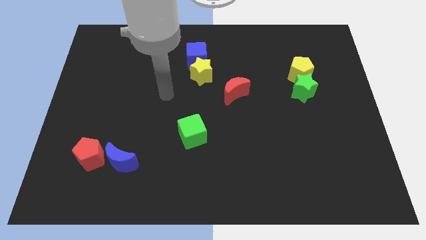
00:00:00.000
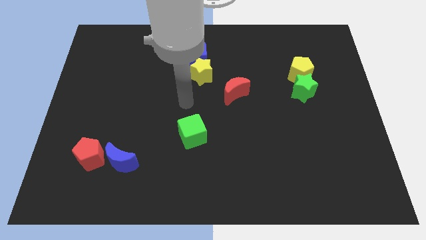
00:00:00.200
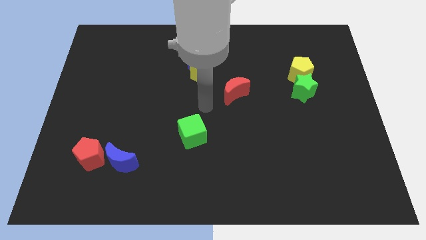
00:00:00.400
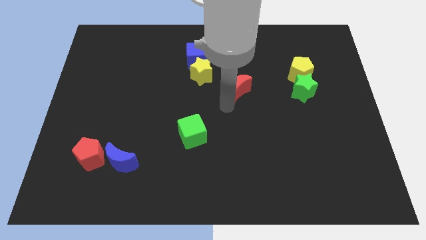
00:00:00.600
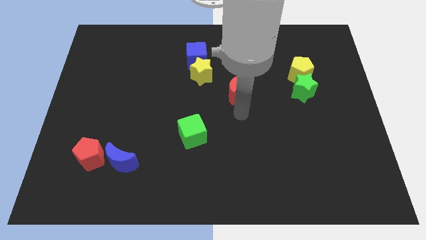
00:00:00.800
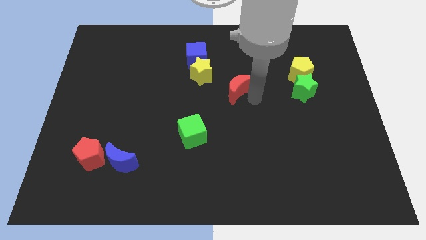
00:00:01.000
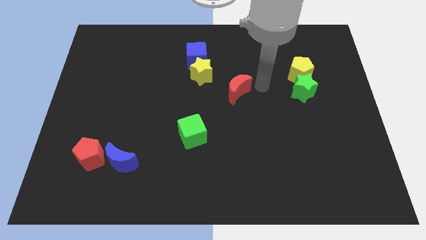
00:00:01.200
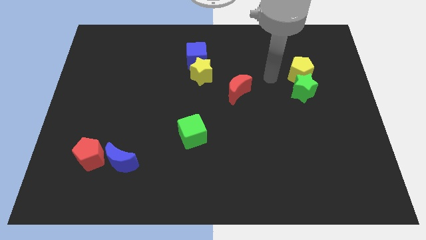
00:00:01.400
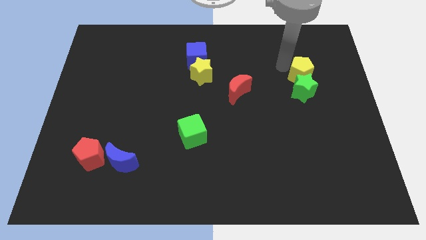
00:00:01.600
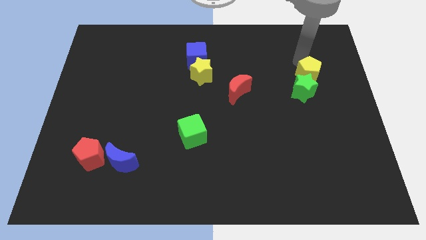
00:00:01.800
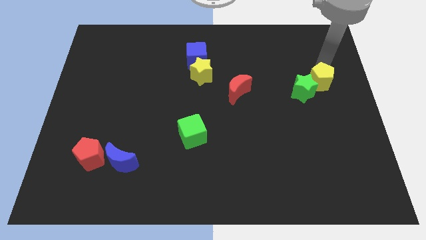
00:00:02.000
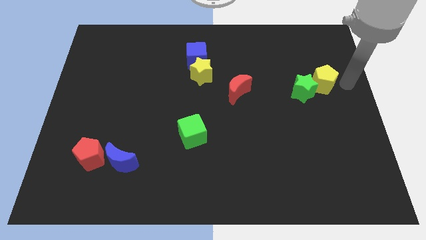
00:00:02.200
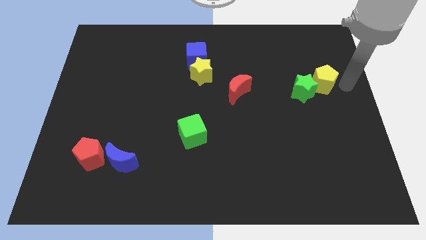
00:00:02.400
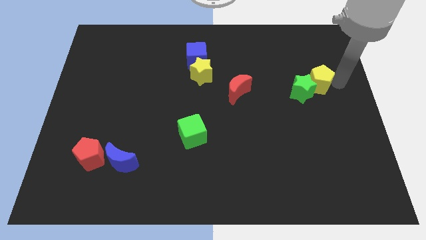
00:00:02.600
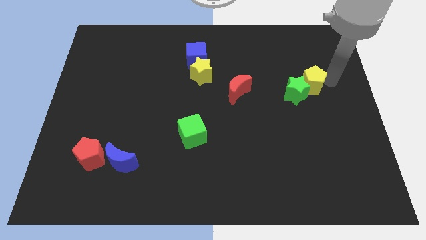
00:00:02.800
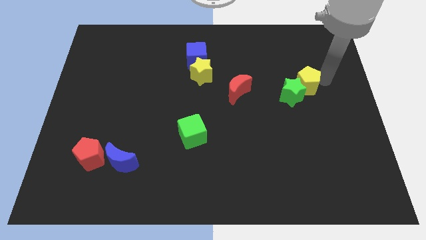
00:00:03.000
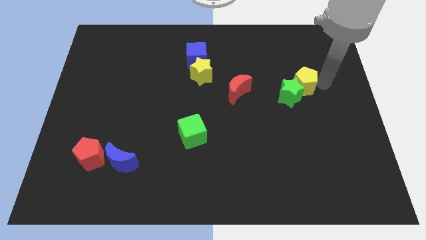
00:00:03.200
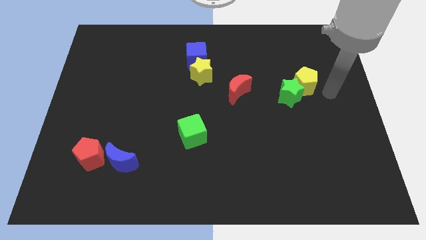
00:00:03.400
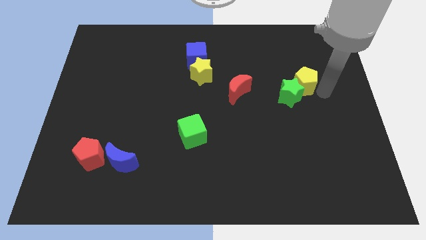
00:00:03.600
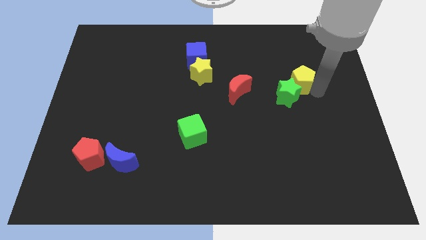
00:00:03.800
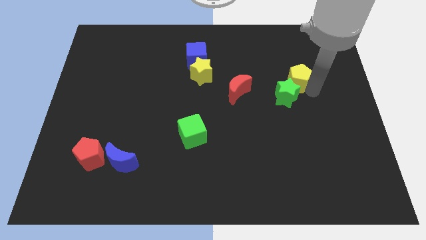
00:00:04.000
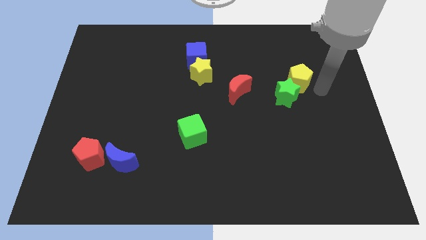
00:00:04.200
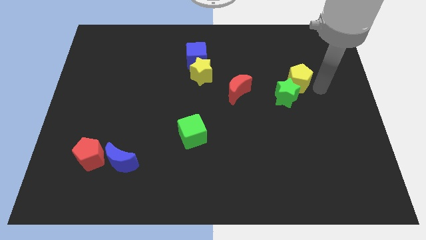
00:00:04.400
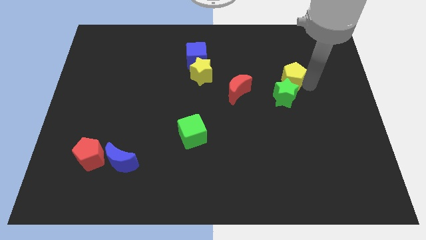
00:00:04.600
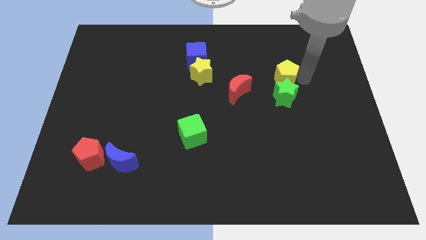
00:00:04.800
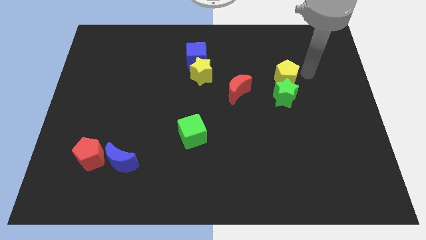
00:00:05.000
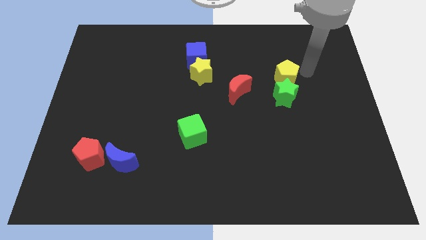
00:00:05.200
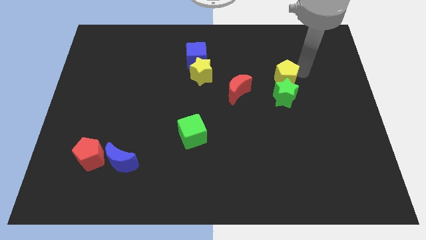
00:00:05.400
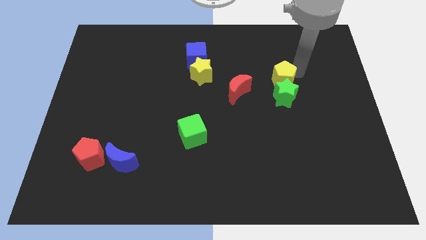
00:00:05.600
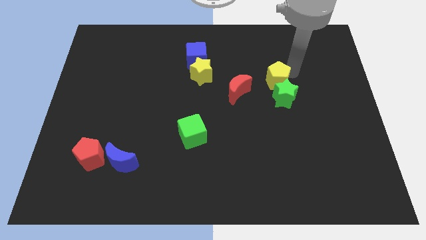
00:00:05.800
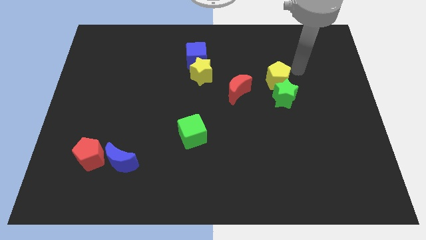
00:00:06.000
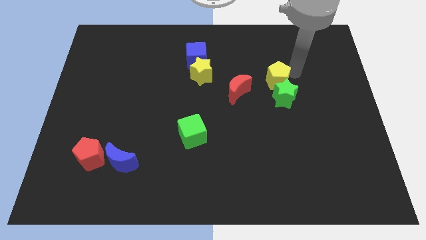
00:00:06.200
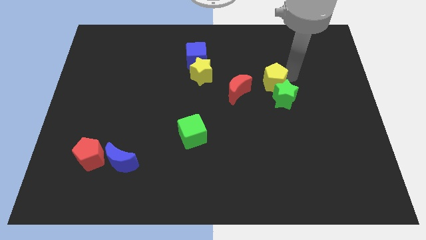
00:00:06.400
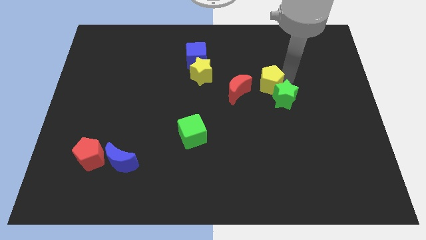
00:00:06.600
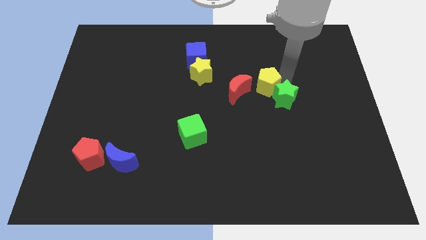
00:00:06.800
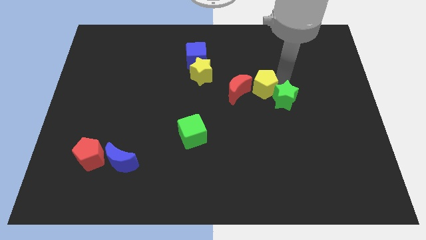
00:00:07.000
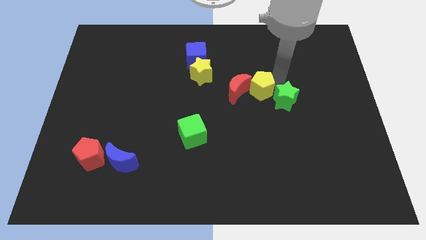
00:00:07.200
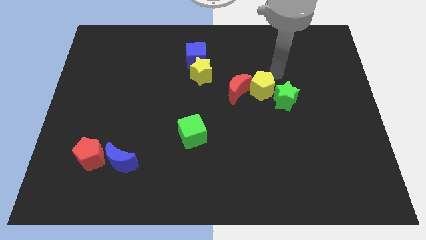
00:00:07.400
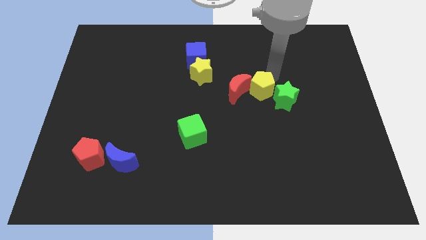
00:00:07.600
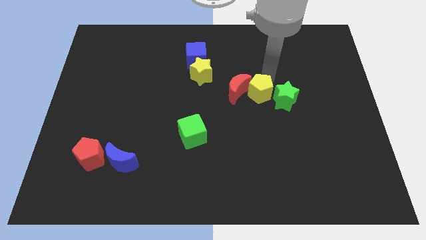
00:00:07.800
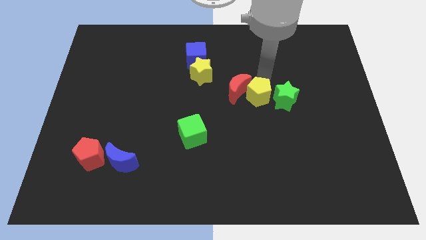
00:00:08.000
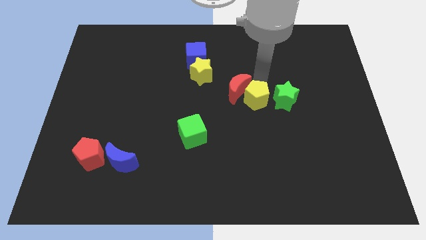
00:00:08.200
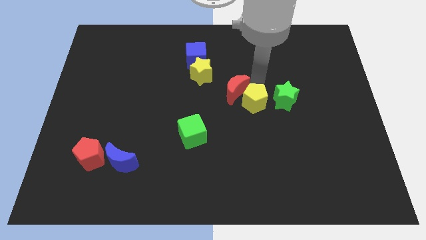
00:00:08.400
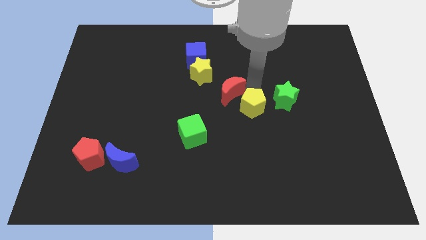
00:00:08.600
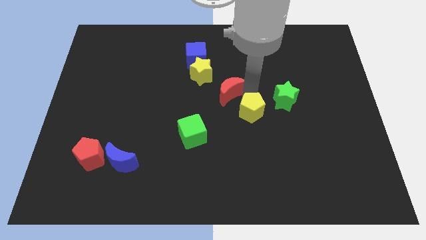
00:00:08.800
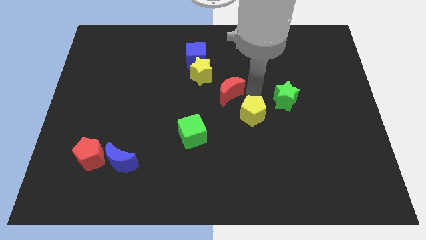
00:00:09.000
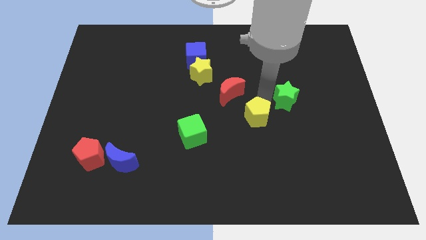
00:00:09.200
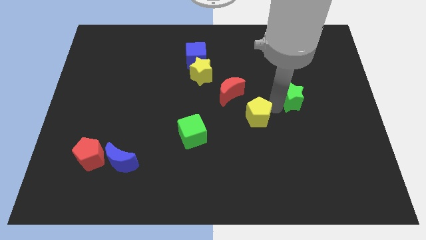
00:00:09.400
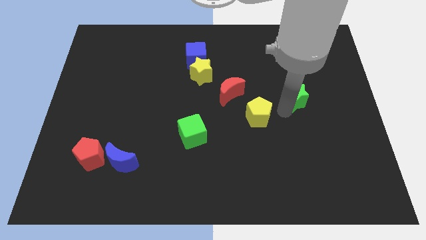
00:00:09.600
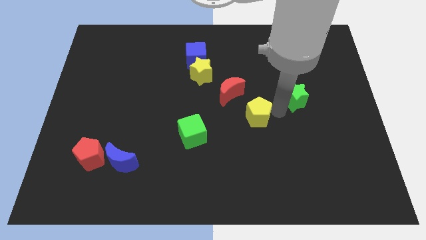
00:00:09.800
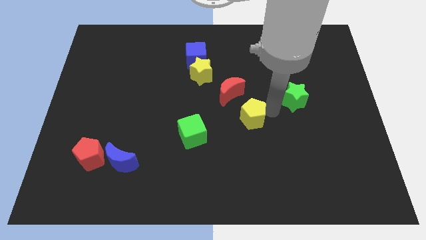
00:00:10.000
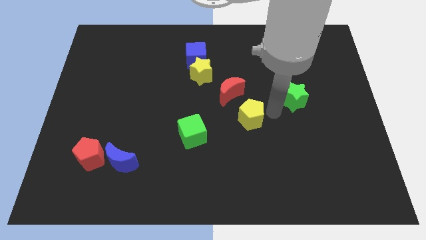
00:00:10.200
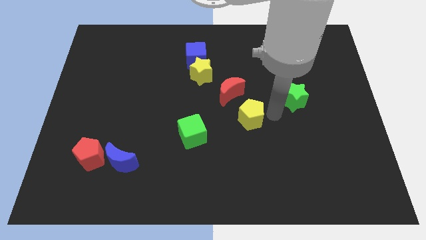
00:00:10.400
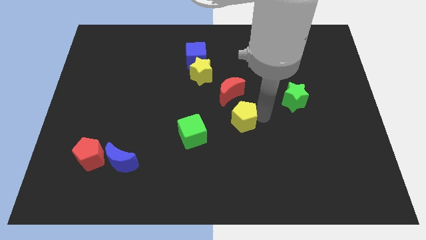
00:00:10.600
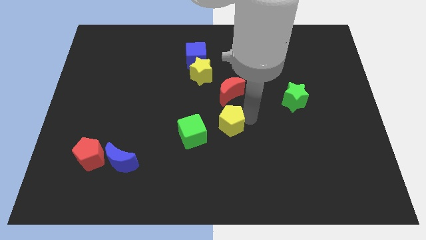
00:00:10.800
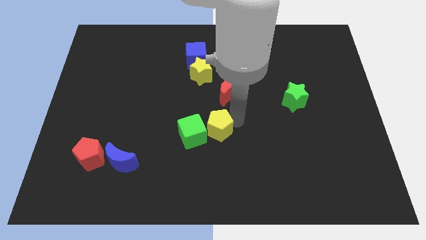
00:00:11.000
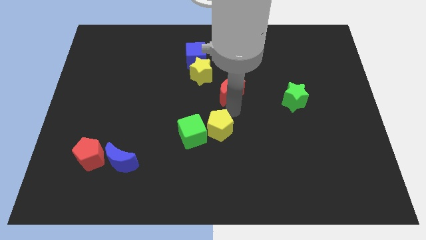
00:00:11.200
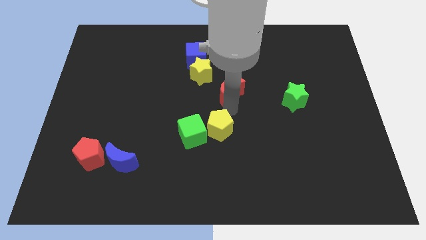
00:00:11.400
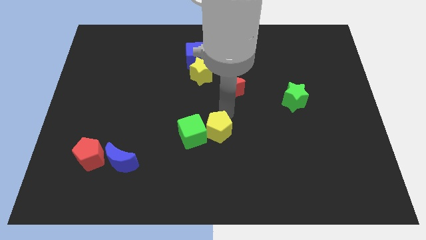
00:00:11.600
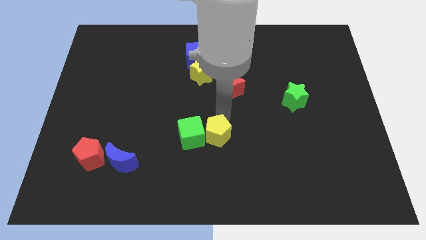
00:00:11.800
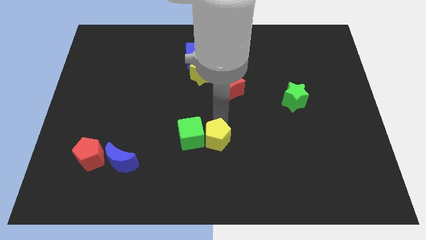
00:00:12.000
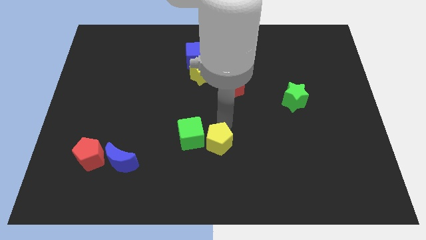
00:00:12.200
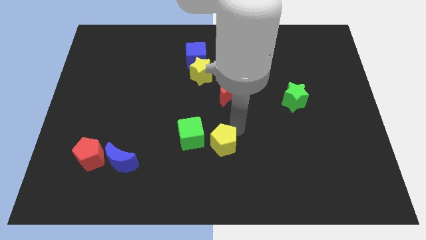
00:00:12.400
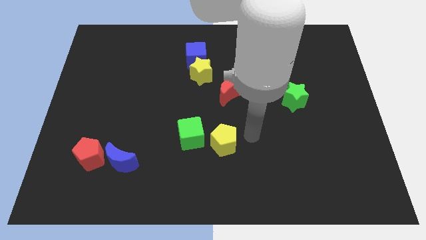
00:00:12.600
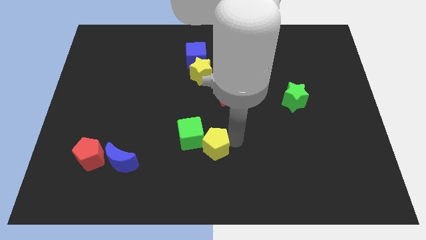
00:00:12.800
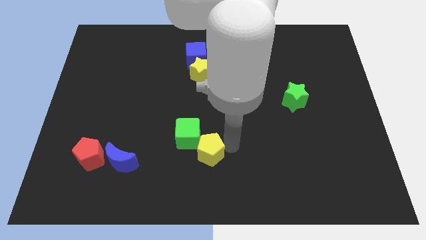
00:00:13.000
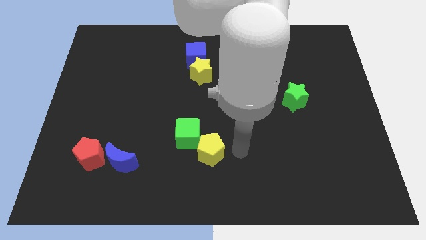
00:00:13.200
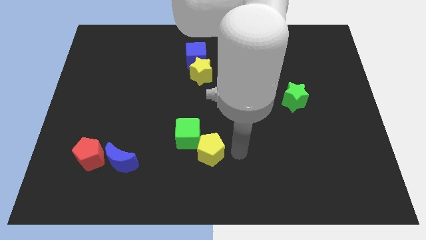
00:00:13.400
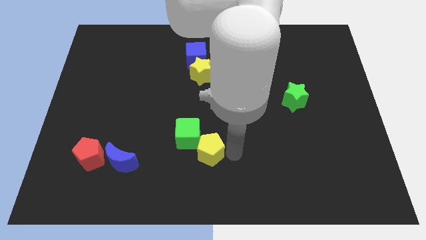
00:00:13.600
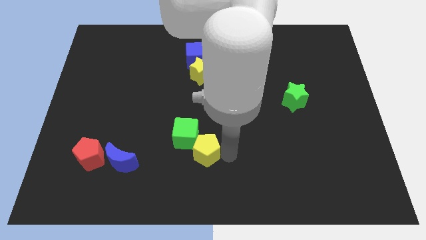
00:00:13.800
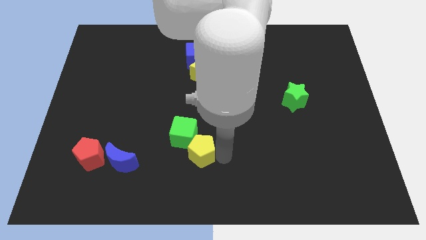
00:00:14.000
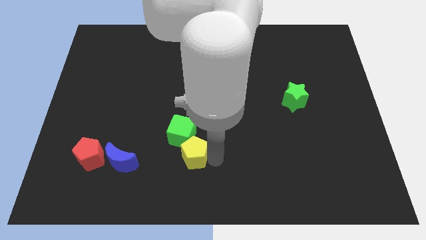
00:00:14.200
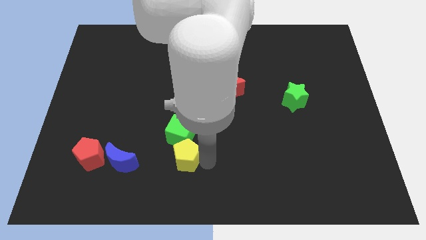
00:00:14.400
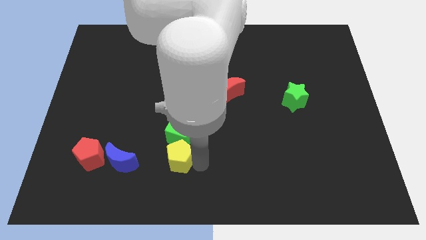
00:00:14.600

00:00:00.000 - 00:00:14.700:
push the yellow pentagon diagonally down and to the left of the green cube

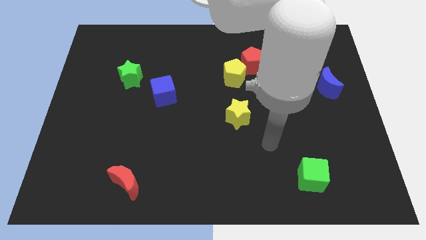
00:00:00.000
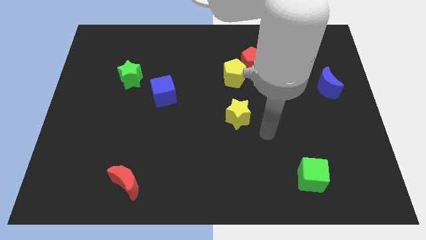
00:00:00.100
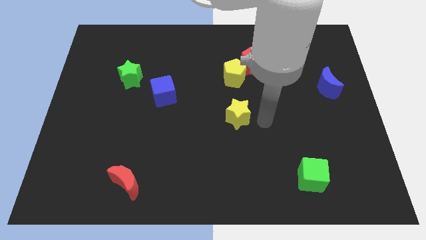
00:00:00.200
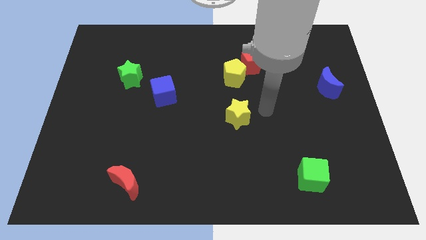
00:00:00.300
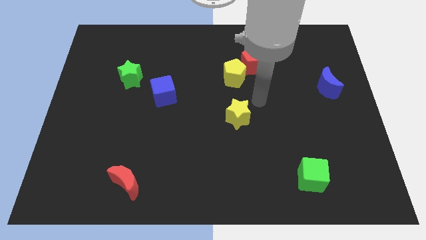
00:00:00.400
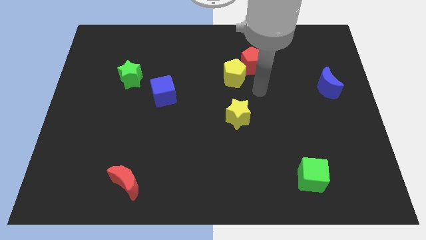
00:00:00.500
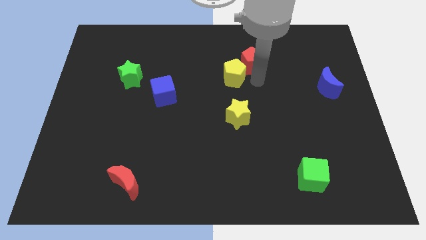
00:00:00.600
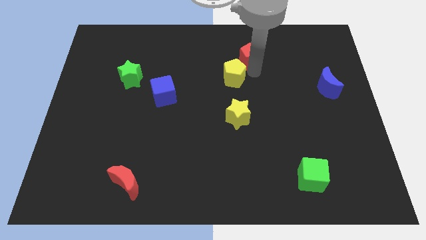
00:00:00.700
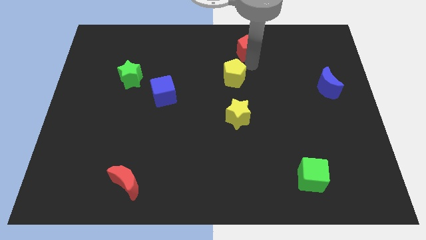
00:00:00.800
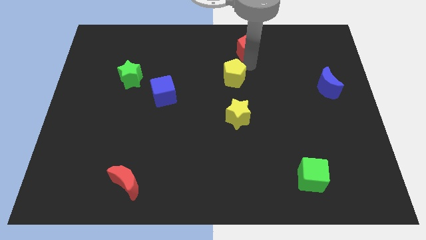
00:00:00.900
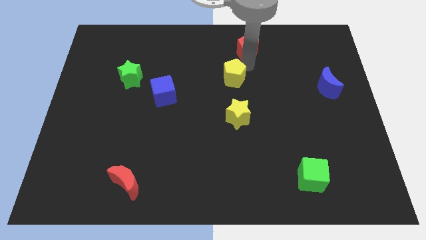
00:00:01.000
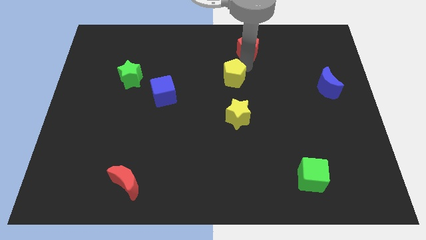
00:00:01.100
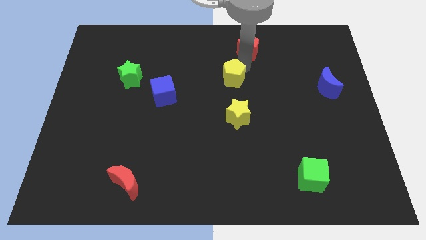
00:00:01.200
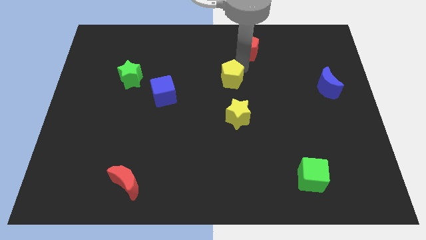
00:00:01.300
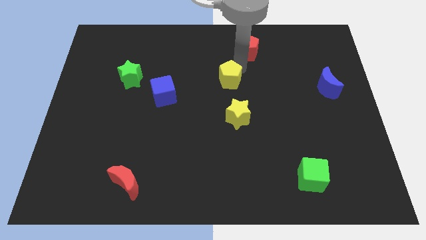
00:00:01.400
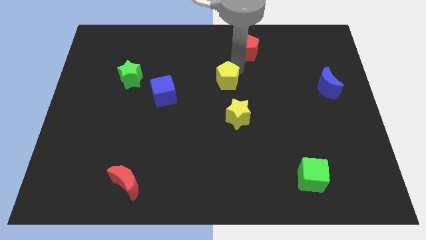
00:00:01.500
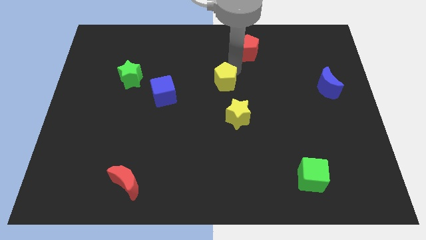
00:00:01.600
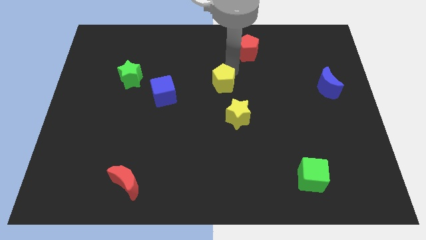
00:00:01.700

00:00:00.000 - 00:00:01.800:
move the yellow pentagon just right of the blue cube
